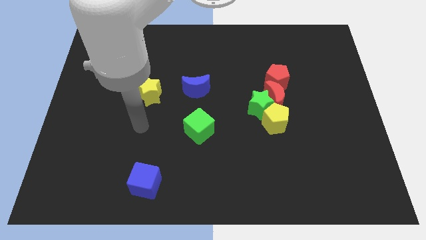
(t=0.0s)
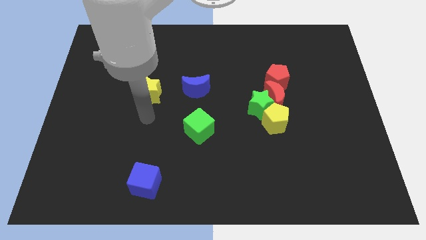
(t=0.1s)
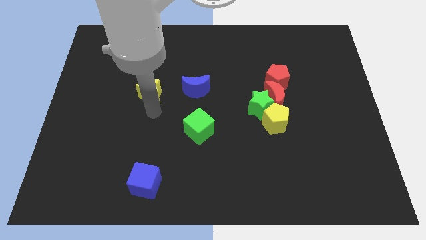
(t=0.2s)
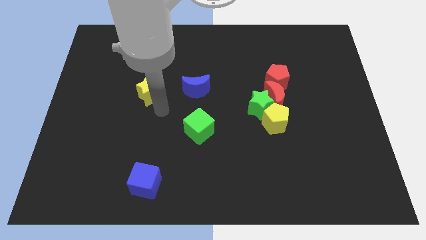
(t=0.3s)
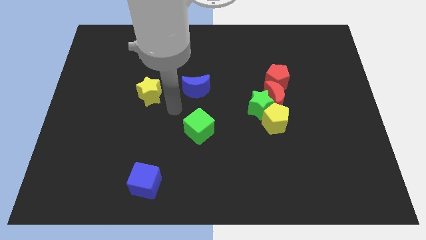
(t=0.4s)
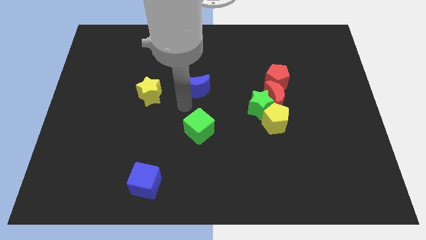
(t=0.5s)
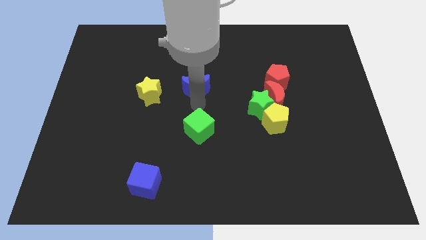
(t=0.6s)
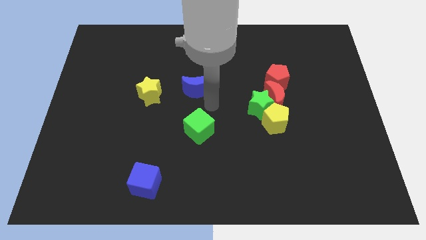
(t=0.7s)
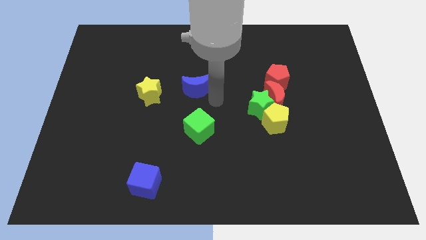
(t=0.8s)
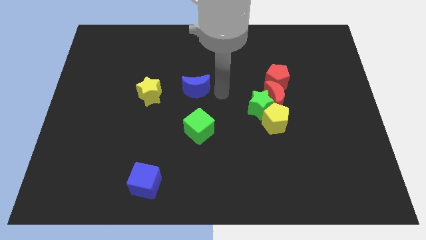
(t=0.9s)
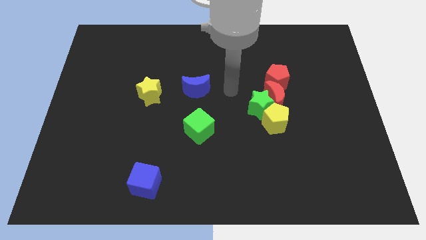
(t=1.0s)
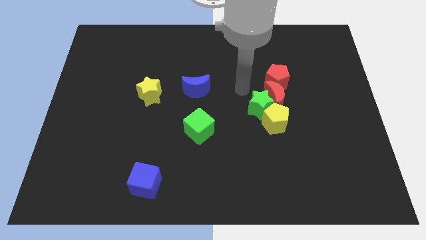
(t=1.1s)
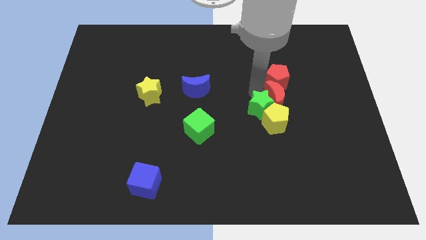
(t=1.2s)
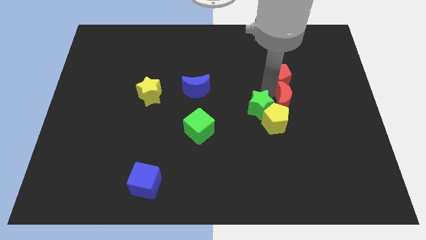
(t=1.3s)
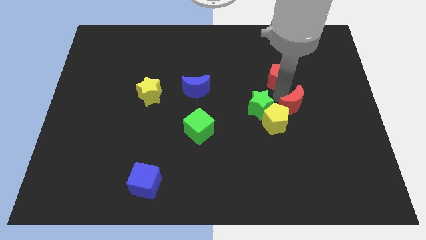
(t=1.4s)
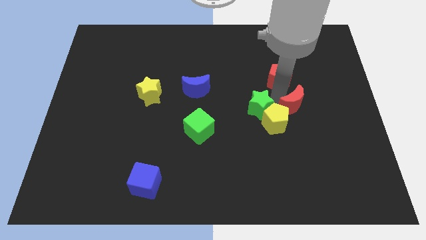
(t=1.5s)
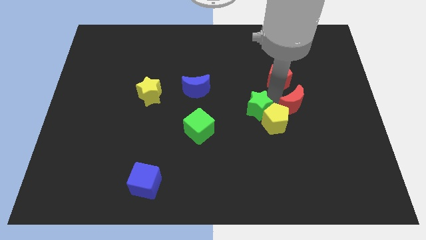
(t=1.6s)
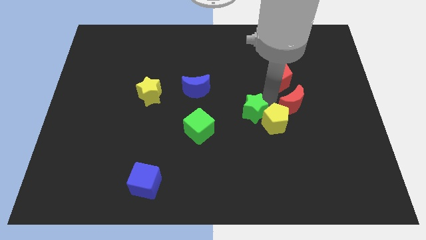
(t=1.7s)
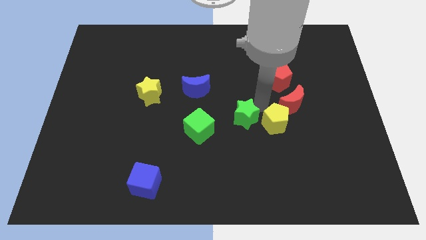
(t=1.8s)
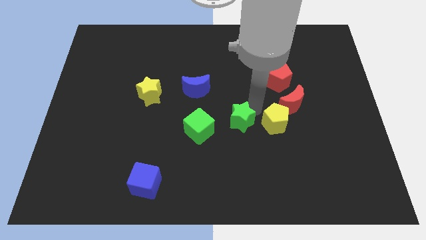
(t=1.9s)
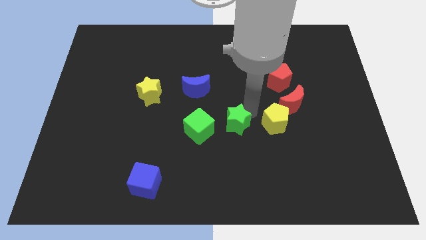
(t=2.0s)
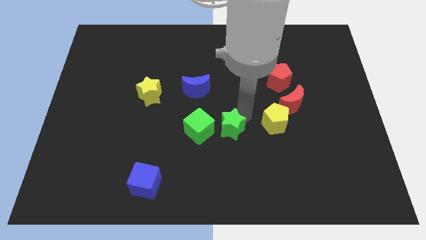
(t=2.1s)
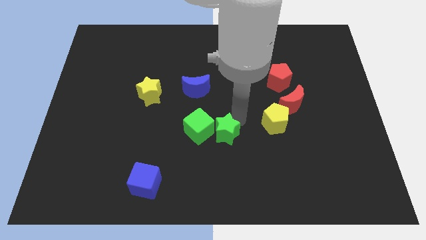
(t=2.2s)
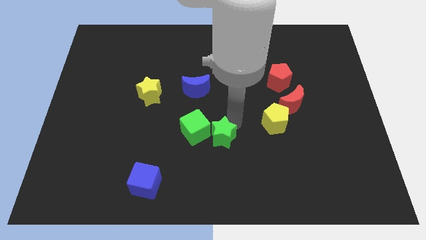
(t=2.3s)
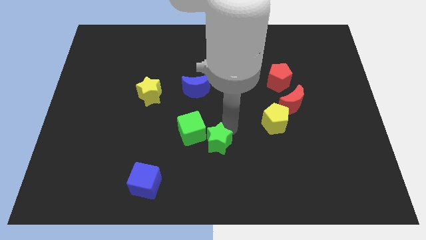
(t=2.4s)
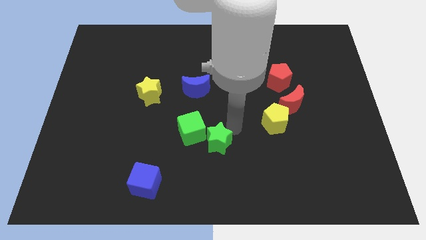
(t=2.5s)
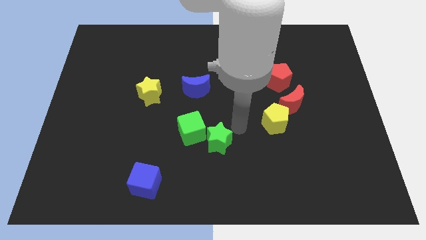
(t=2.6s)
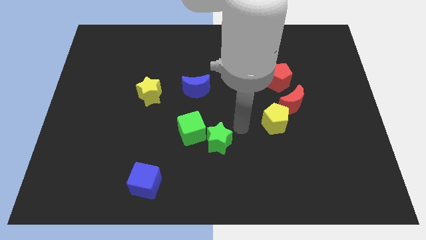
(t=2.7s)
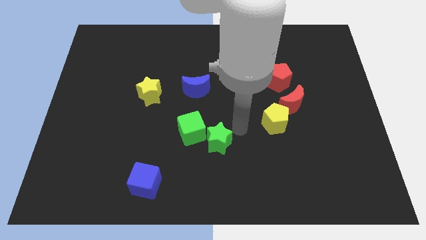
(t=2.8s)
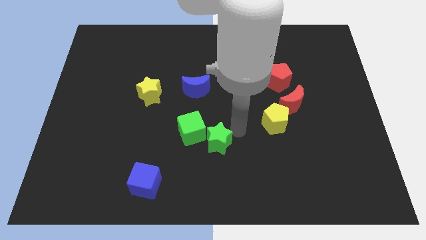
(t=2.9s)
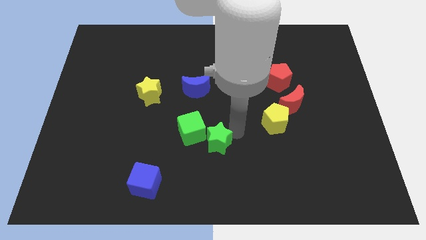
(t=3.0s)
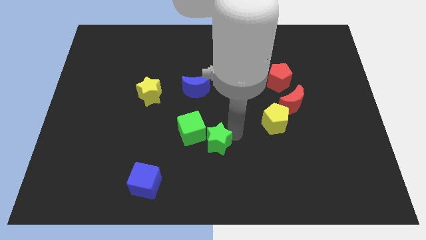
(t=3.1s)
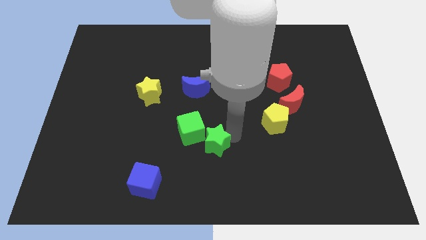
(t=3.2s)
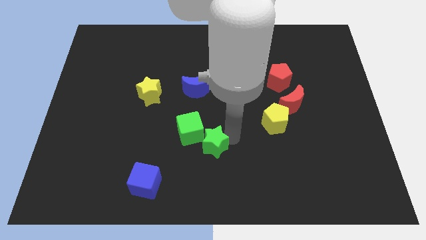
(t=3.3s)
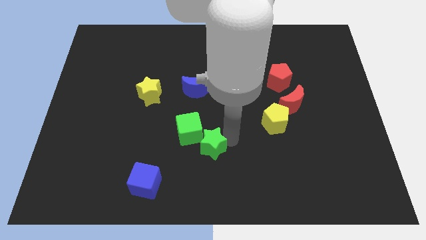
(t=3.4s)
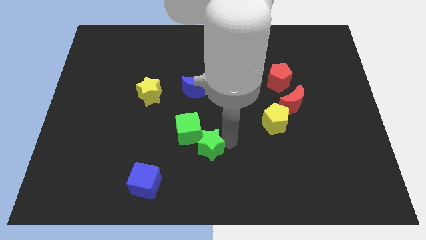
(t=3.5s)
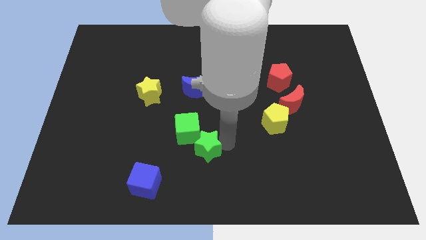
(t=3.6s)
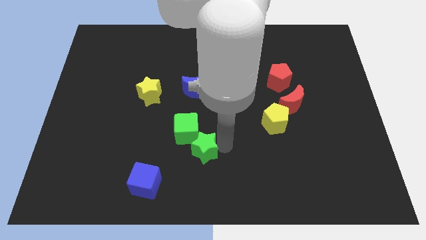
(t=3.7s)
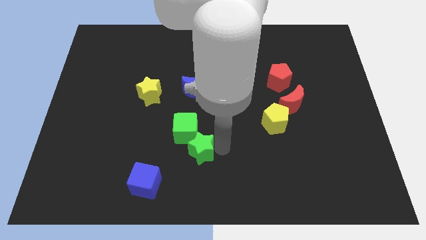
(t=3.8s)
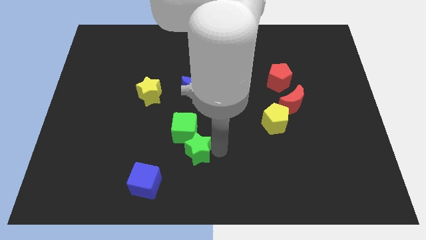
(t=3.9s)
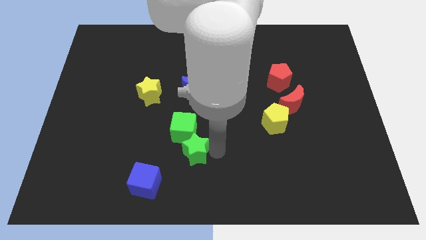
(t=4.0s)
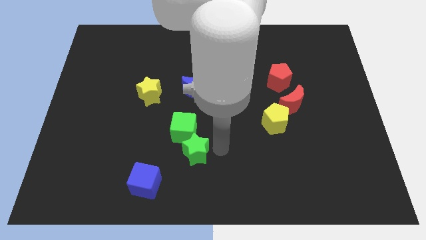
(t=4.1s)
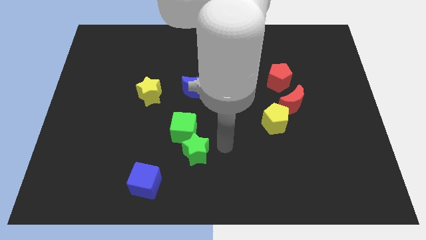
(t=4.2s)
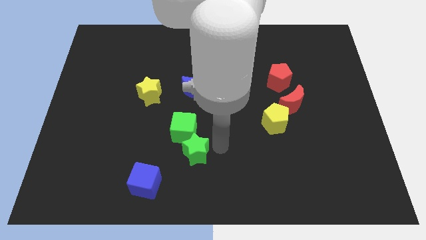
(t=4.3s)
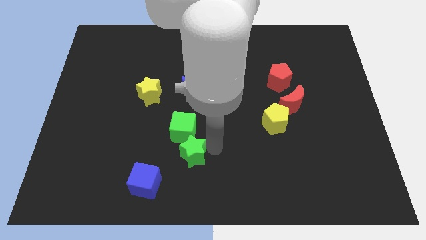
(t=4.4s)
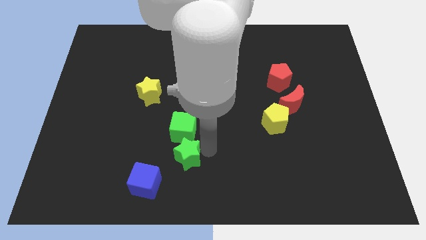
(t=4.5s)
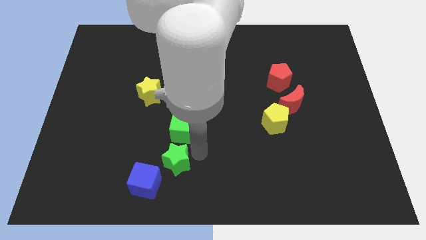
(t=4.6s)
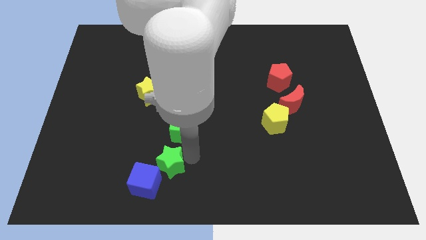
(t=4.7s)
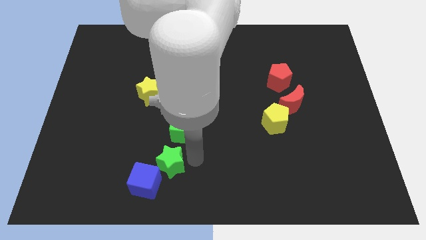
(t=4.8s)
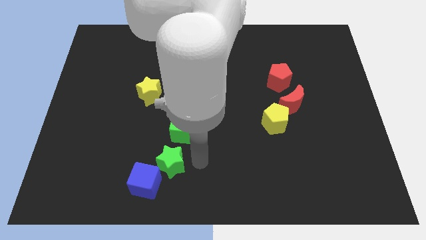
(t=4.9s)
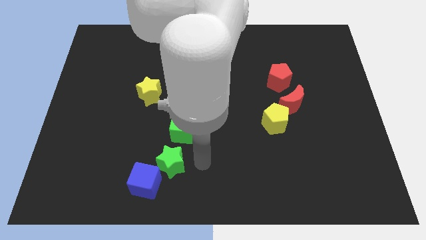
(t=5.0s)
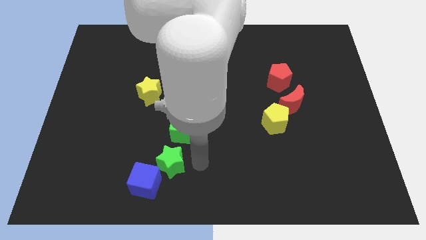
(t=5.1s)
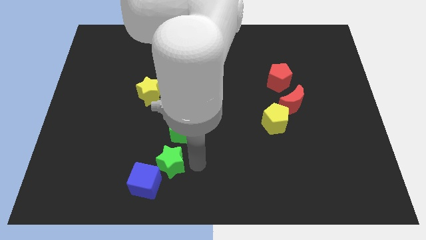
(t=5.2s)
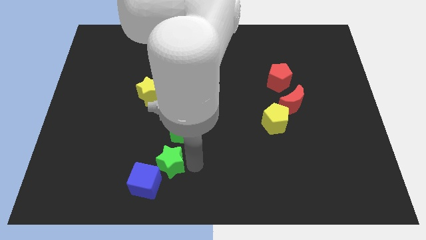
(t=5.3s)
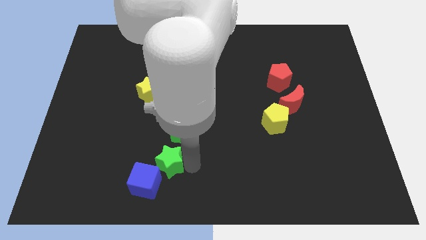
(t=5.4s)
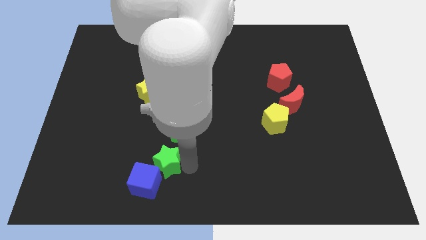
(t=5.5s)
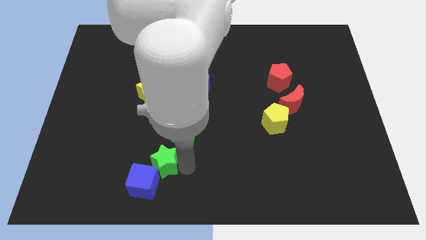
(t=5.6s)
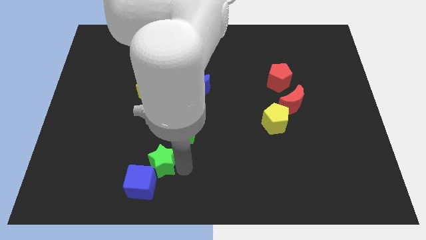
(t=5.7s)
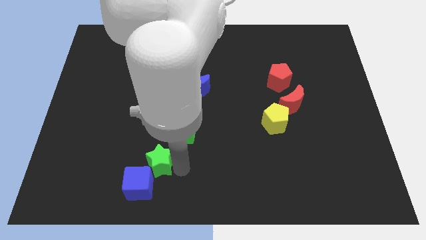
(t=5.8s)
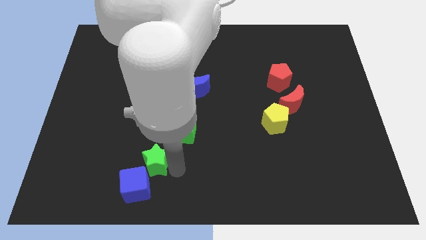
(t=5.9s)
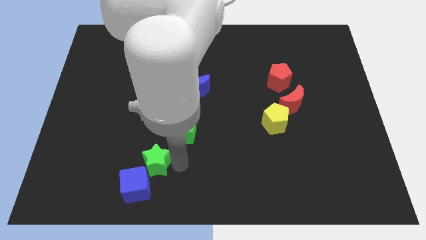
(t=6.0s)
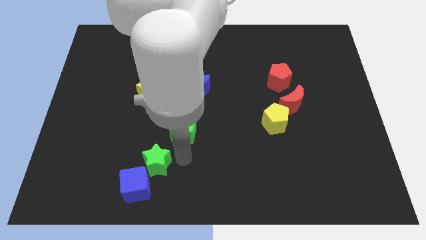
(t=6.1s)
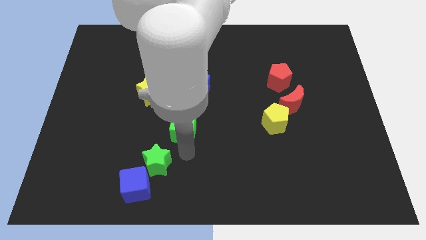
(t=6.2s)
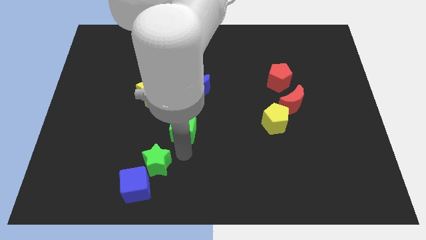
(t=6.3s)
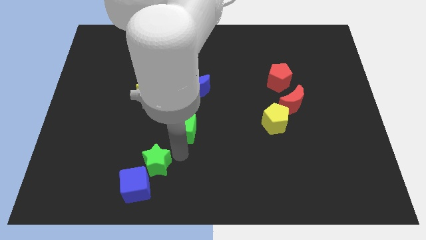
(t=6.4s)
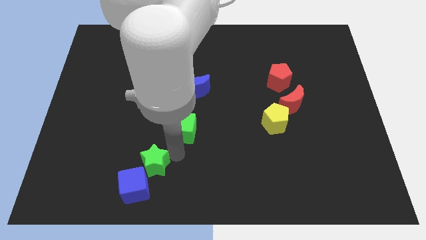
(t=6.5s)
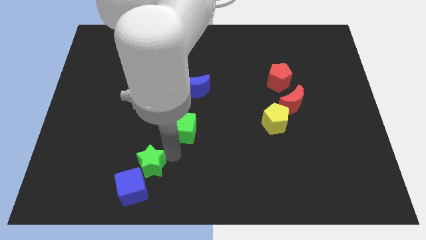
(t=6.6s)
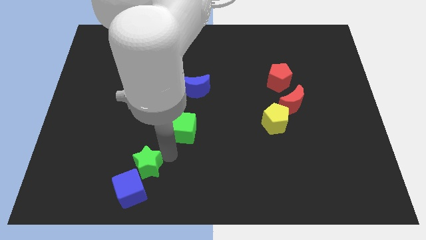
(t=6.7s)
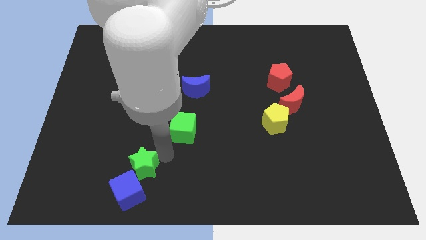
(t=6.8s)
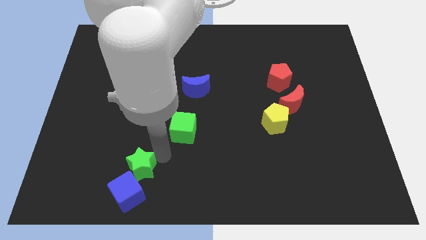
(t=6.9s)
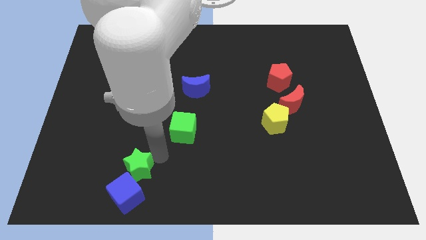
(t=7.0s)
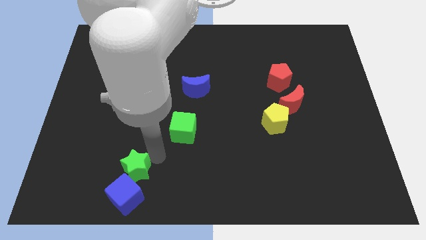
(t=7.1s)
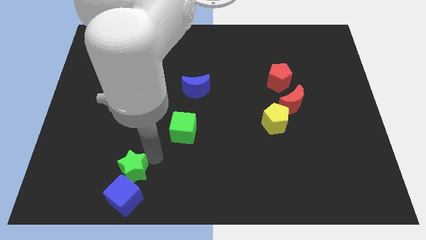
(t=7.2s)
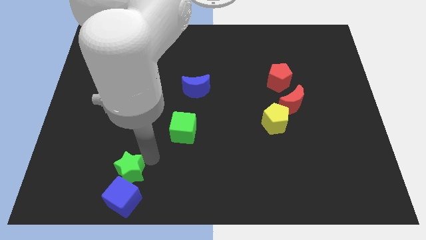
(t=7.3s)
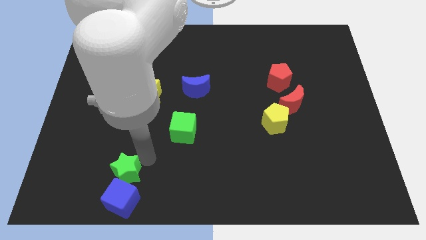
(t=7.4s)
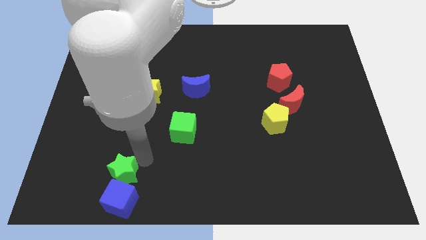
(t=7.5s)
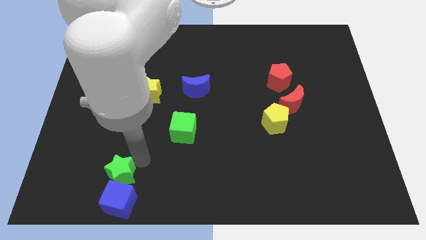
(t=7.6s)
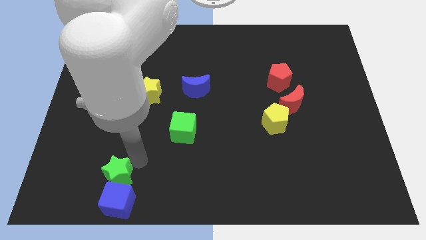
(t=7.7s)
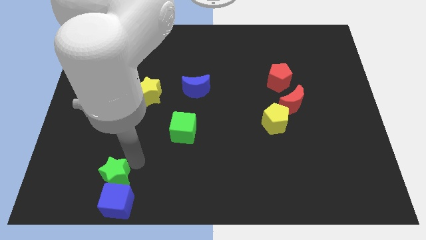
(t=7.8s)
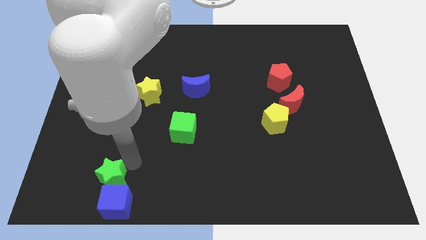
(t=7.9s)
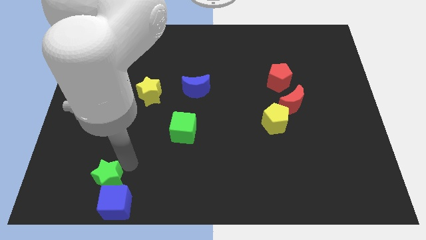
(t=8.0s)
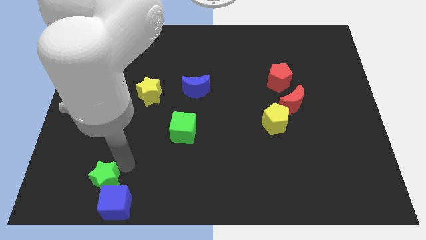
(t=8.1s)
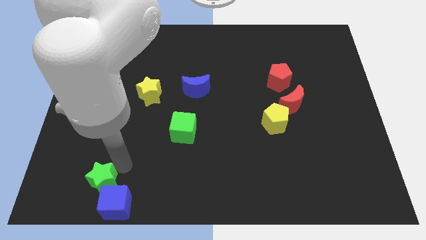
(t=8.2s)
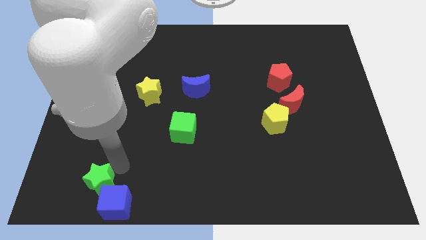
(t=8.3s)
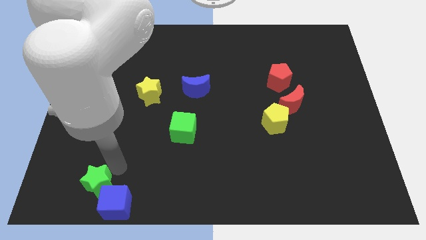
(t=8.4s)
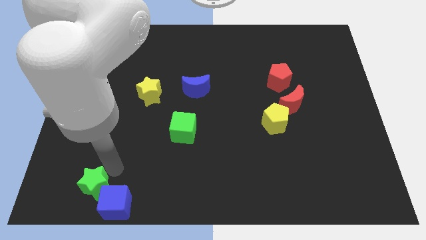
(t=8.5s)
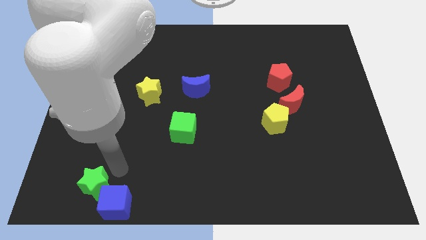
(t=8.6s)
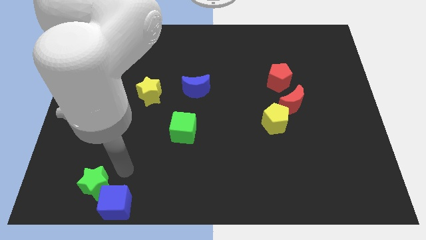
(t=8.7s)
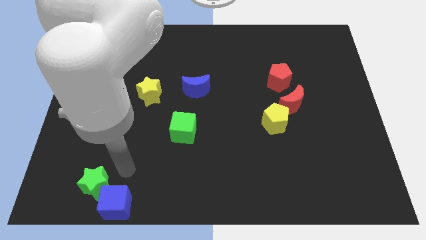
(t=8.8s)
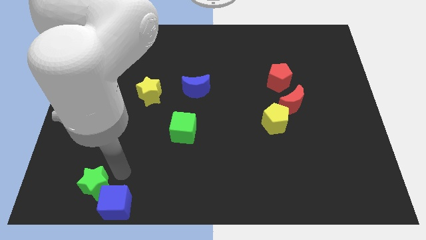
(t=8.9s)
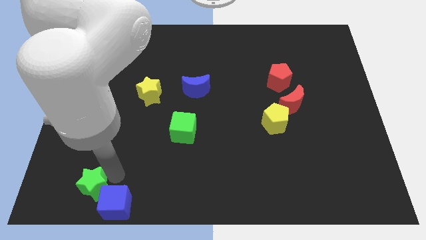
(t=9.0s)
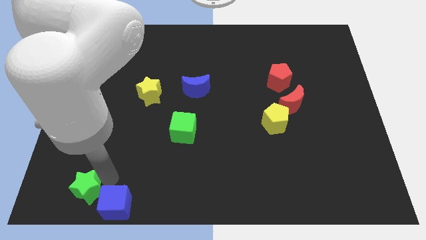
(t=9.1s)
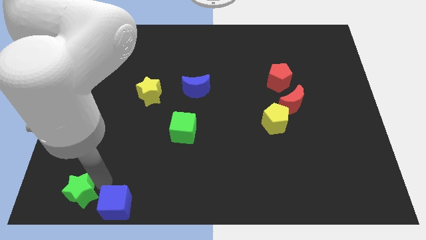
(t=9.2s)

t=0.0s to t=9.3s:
move the green star to the bottom left of the board
